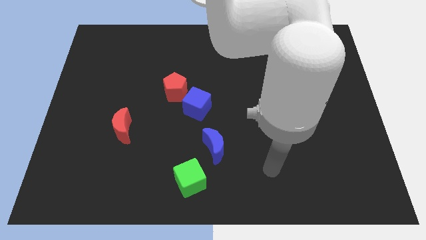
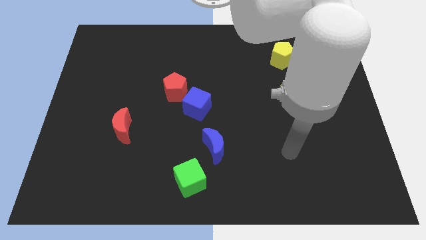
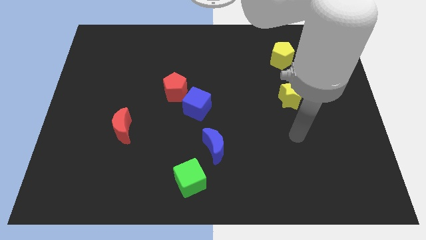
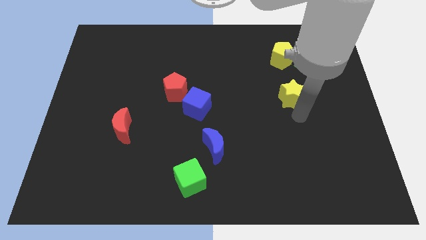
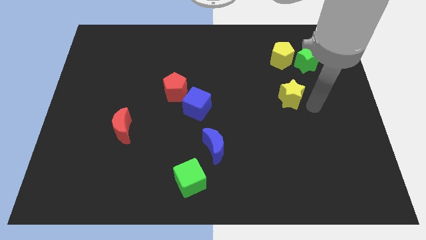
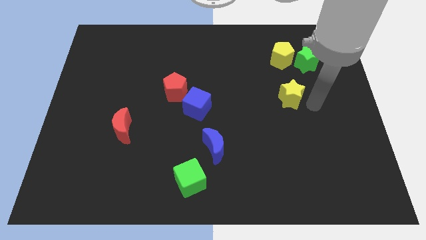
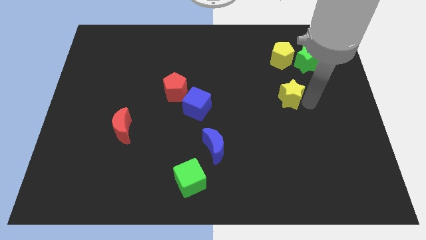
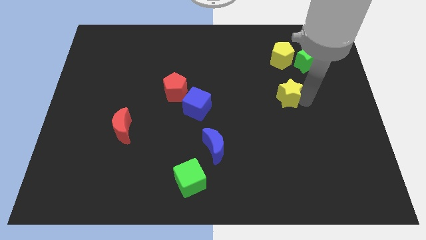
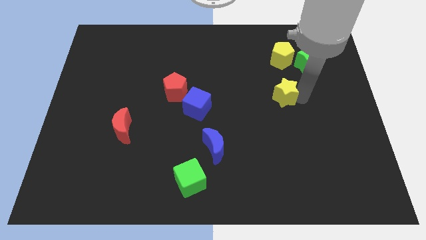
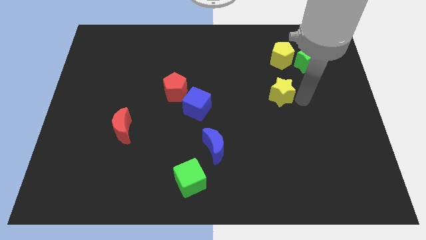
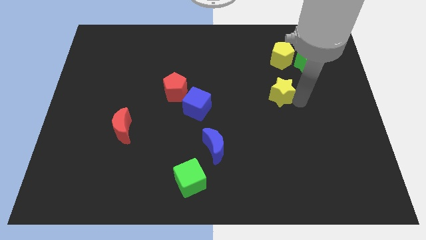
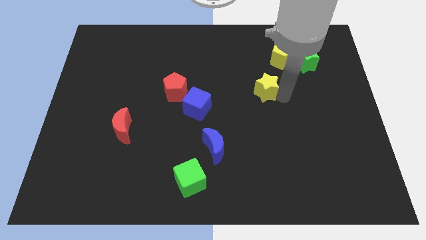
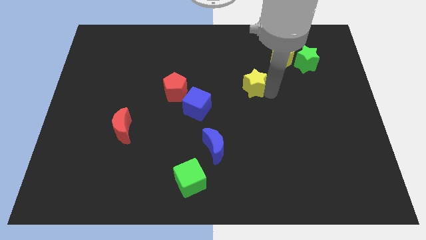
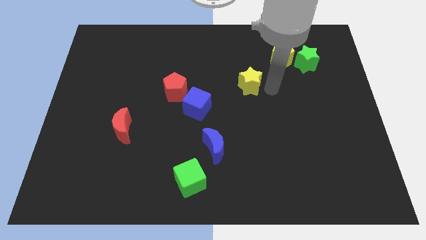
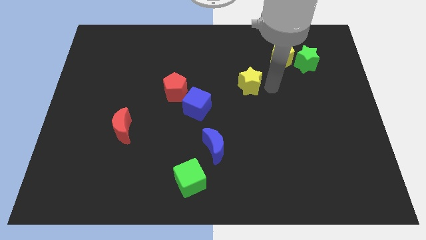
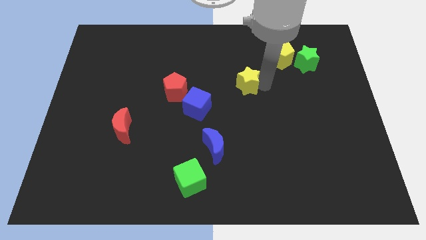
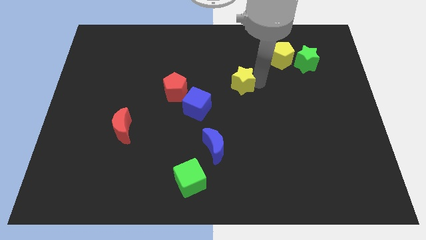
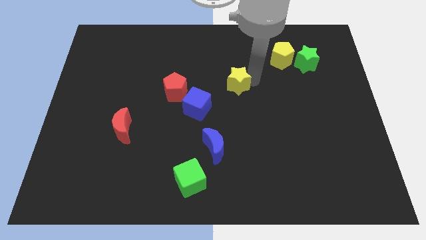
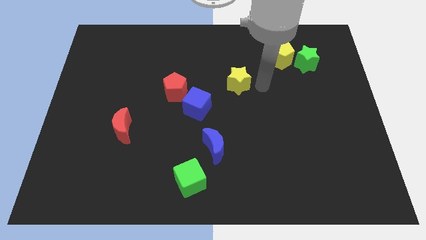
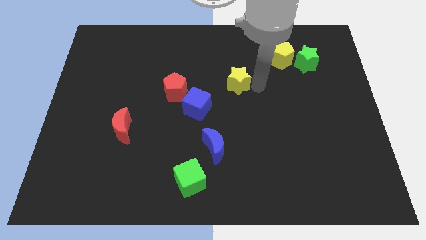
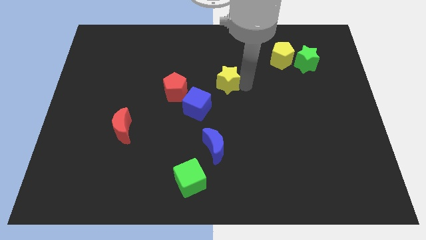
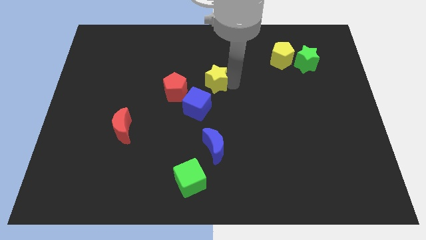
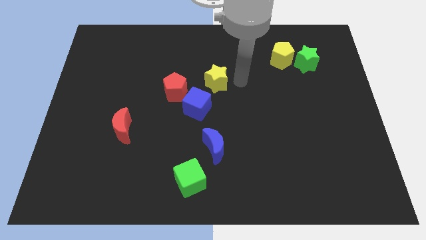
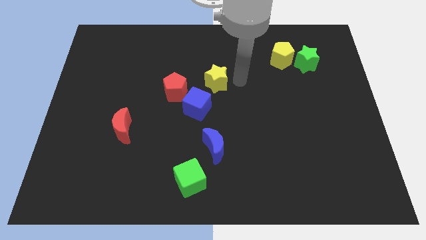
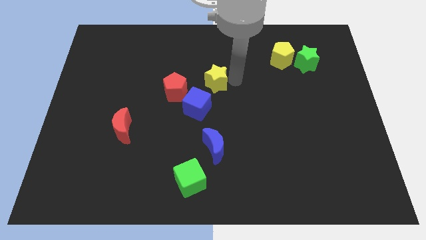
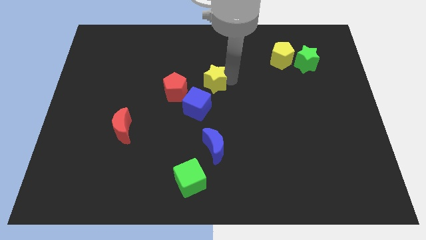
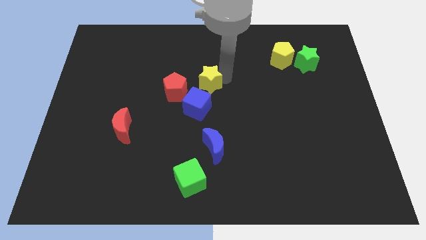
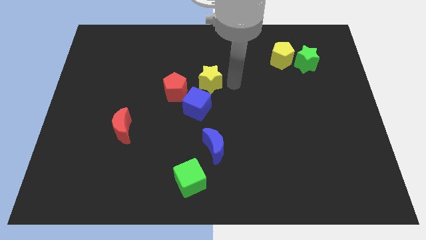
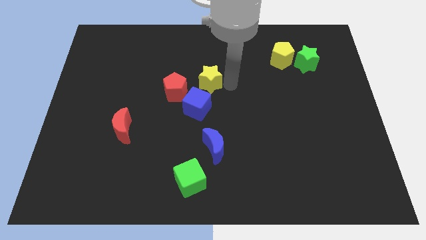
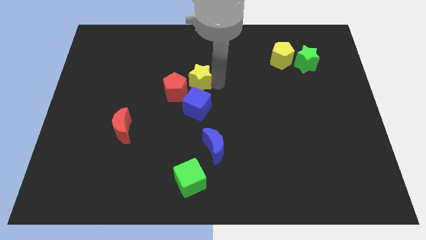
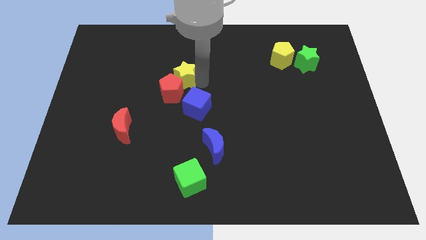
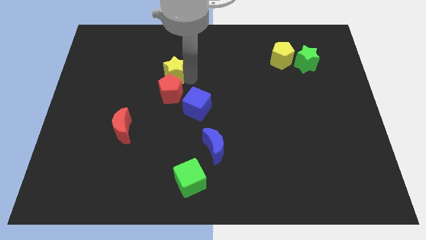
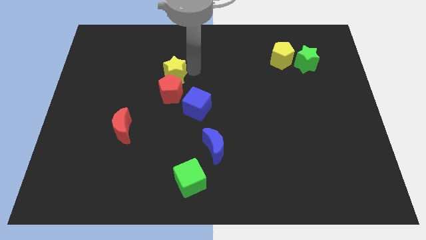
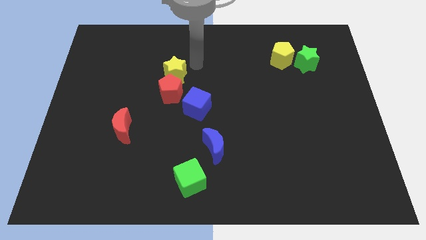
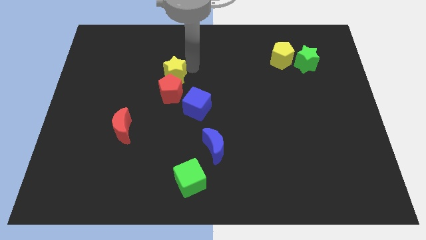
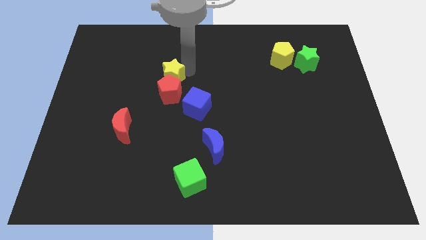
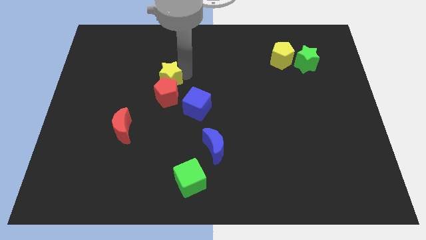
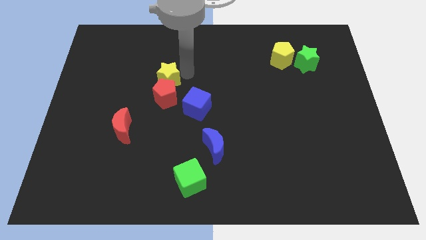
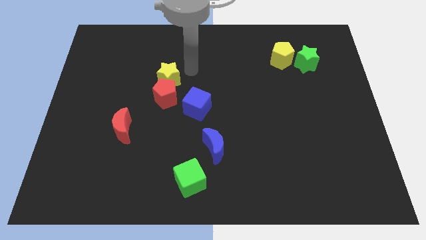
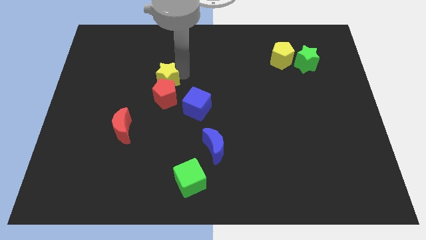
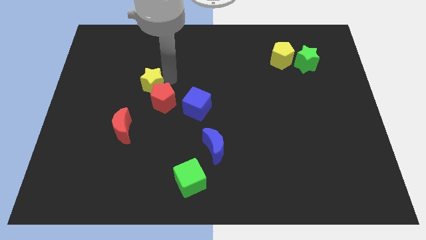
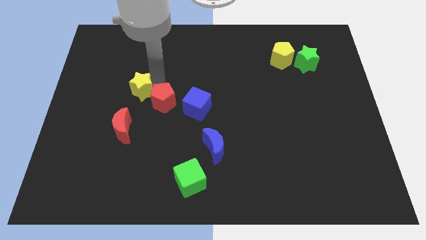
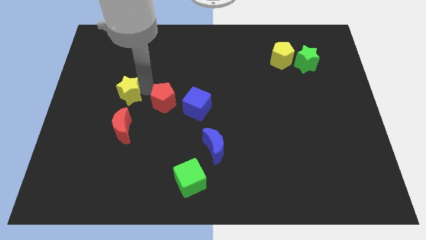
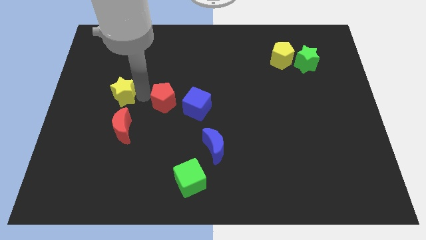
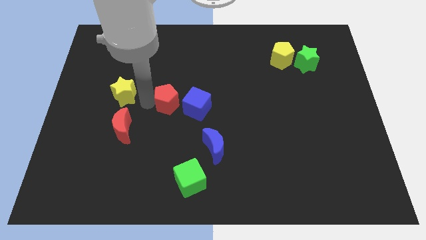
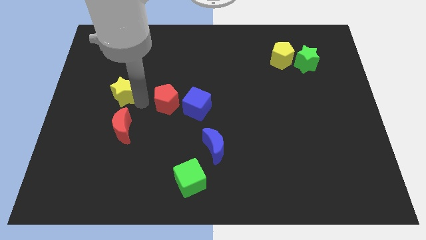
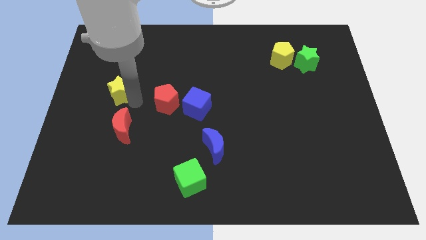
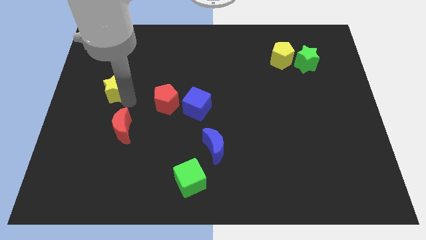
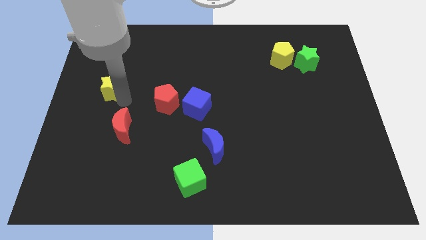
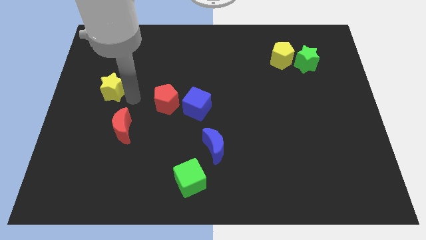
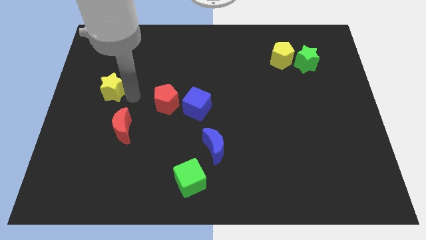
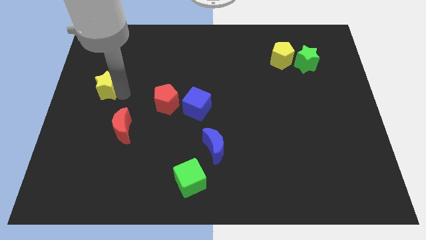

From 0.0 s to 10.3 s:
put the yellow star to the center left

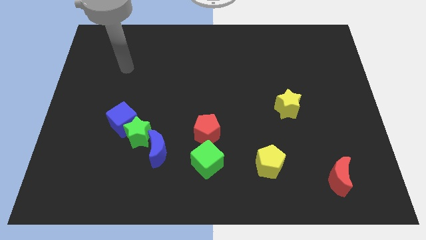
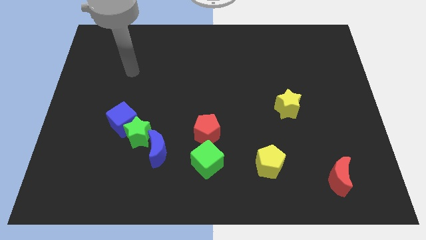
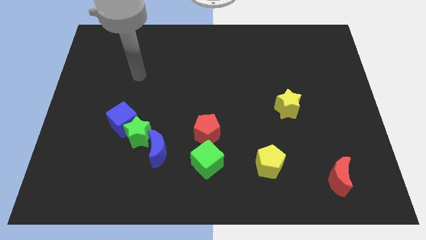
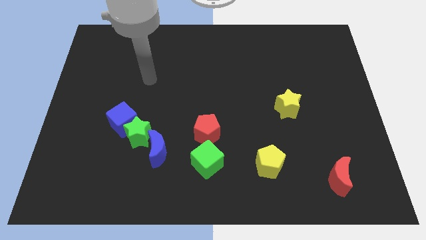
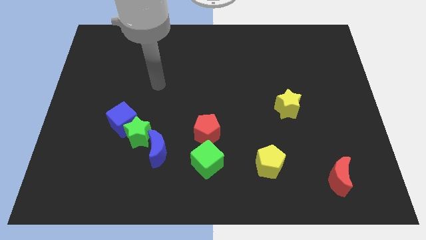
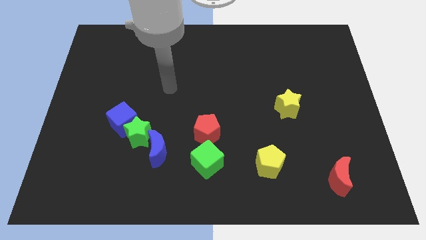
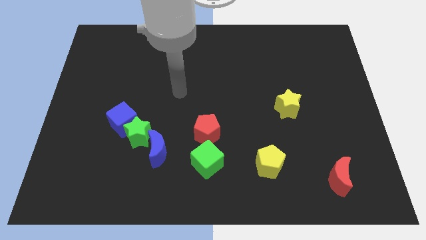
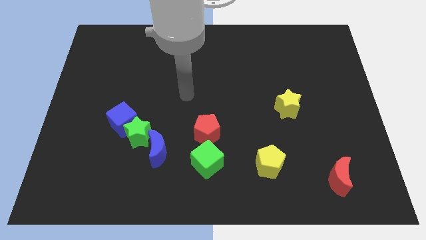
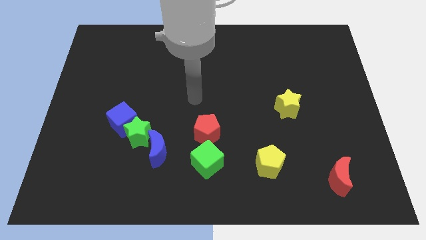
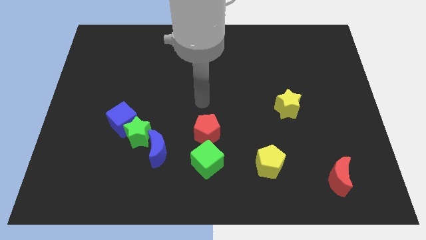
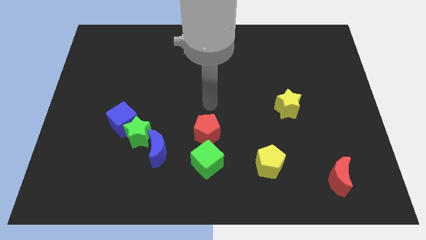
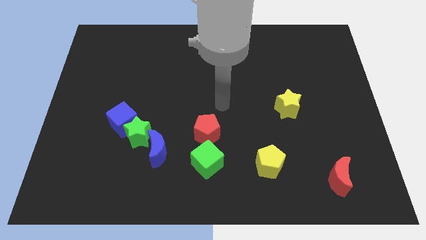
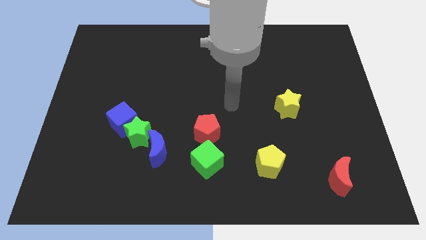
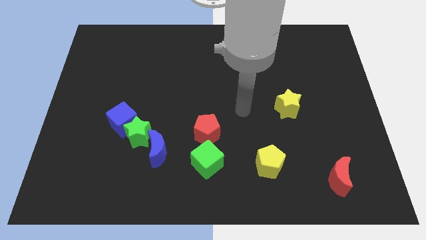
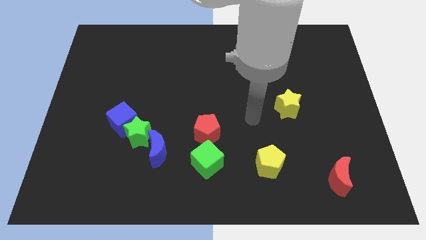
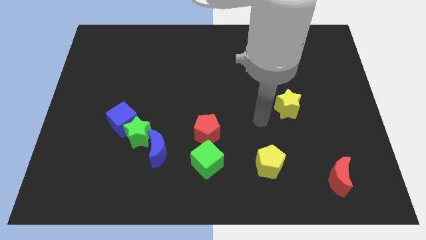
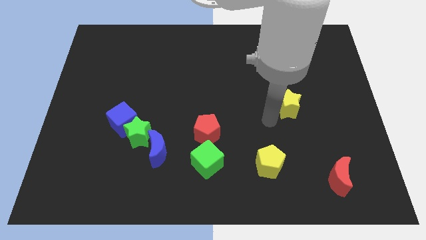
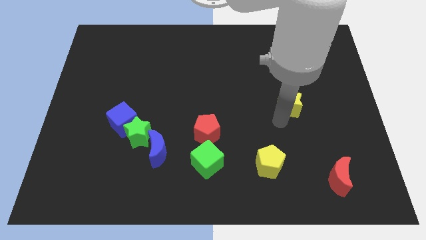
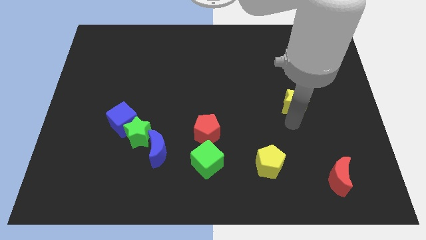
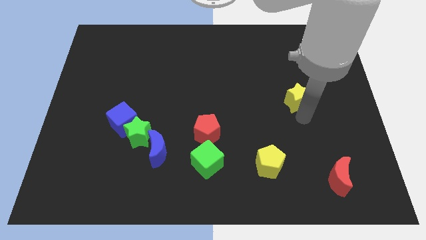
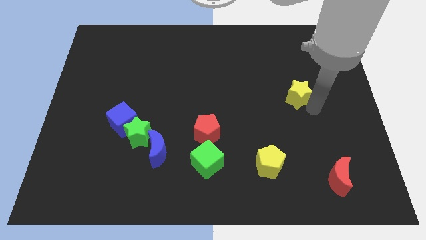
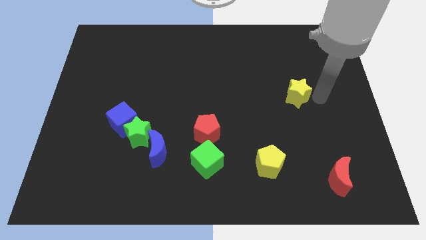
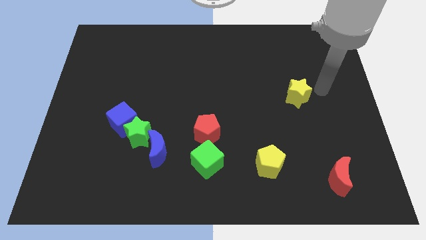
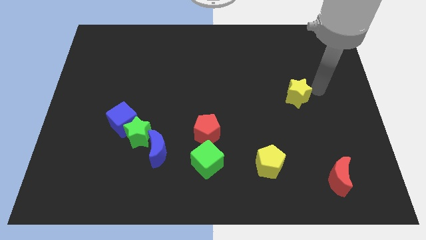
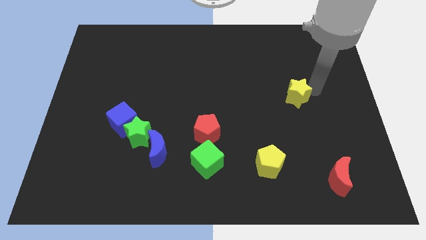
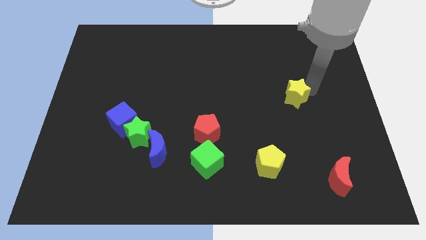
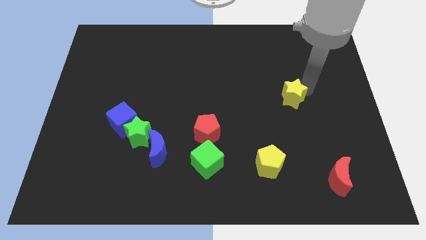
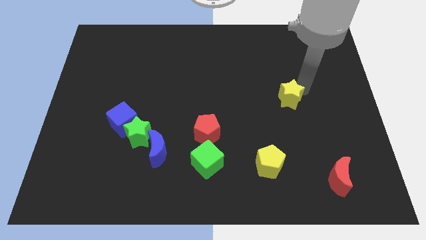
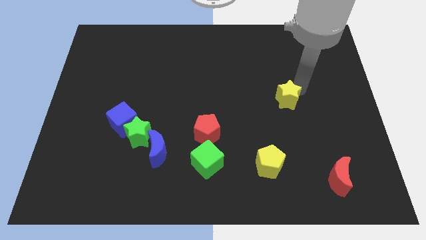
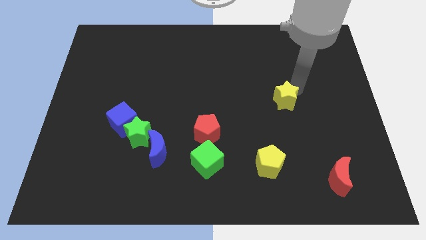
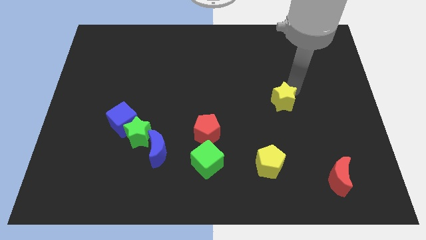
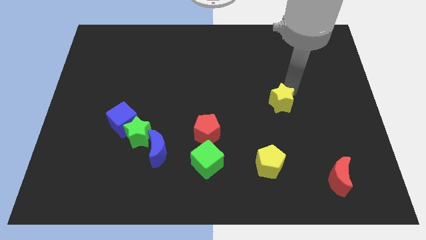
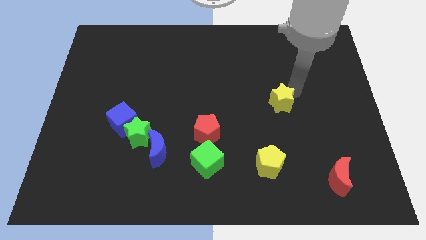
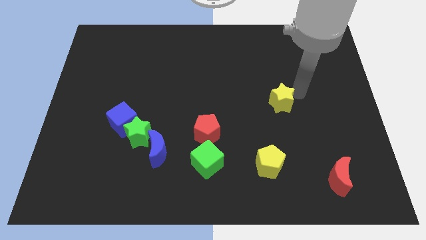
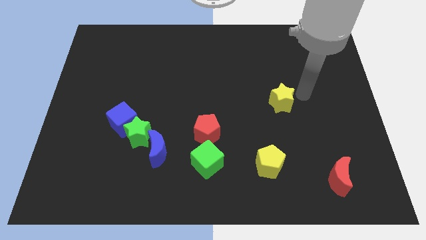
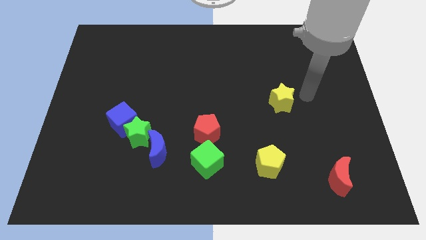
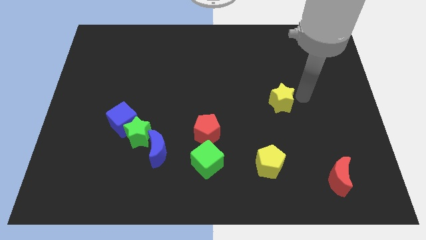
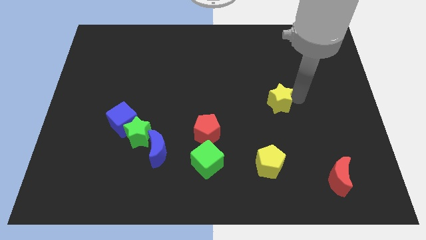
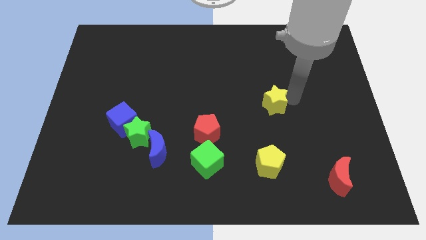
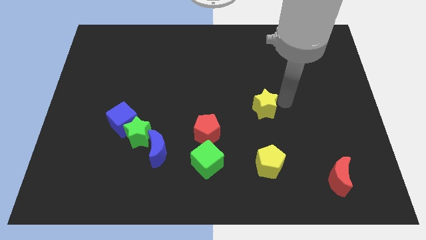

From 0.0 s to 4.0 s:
move the yellow star to the middle of the board
